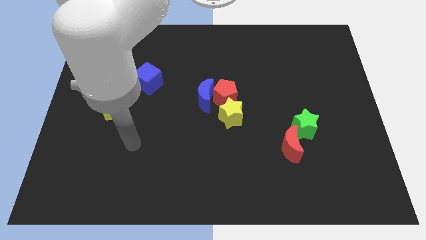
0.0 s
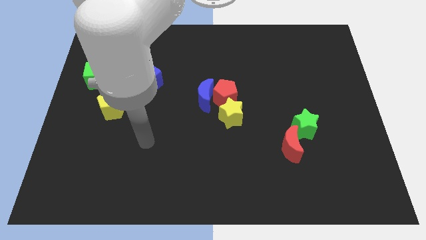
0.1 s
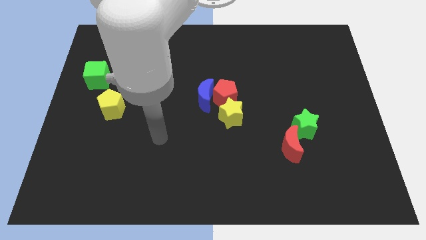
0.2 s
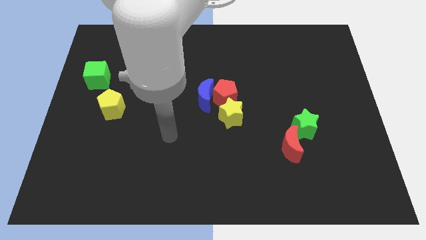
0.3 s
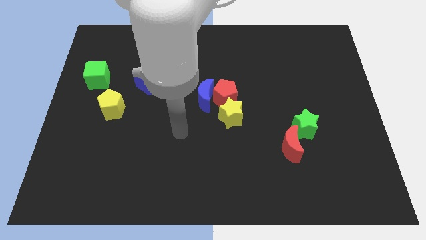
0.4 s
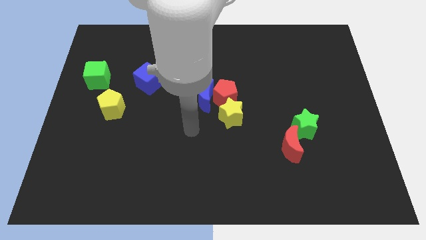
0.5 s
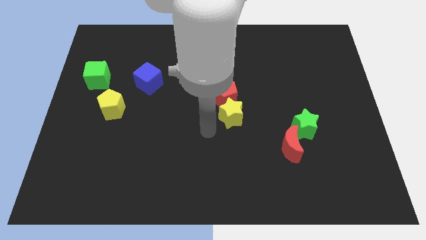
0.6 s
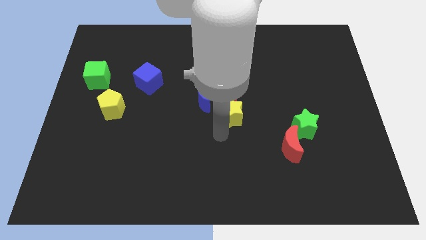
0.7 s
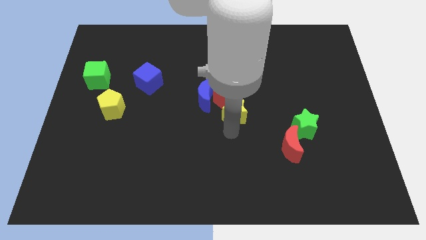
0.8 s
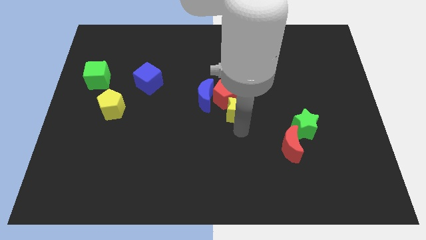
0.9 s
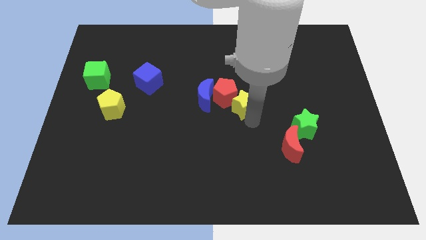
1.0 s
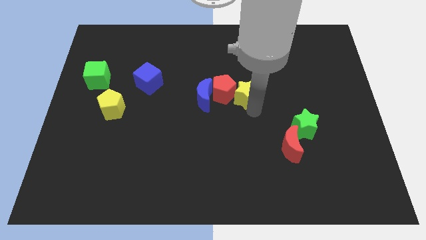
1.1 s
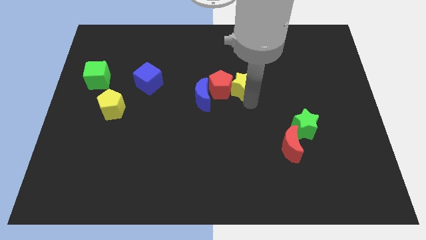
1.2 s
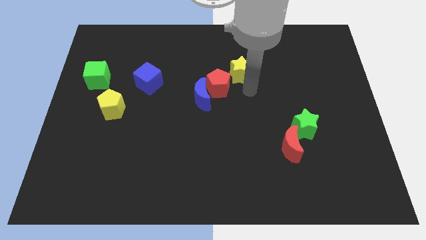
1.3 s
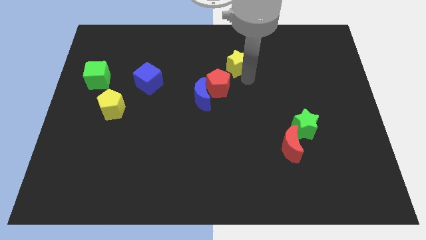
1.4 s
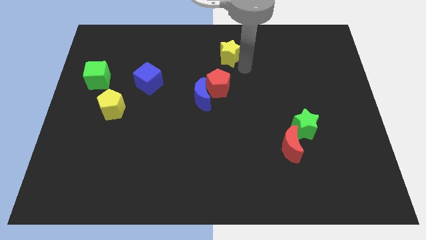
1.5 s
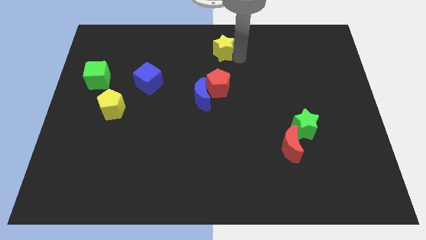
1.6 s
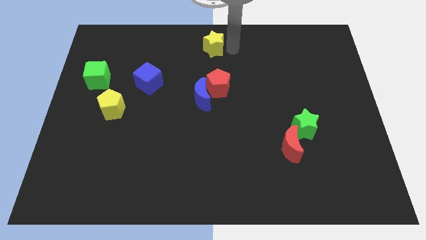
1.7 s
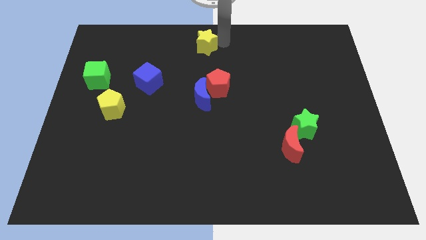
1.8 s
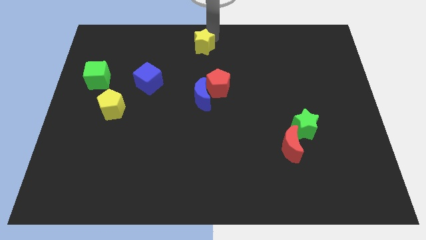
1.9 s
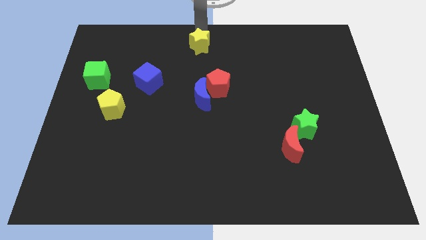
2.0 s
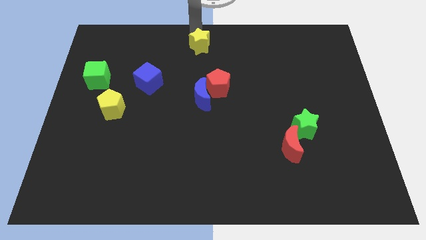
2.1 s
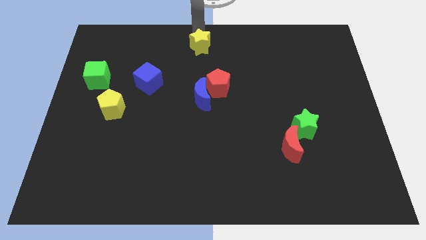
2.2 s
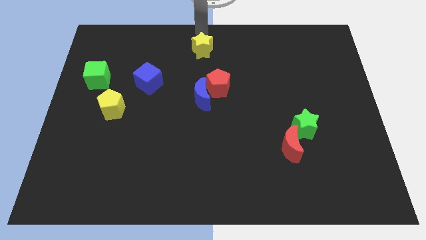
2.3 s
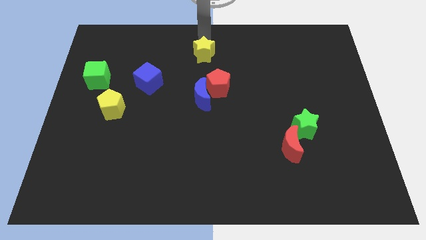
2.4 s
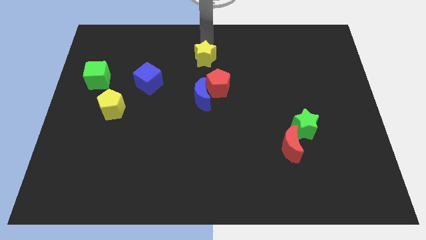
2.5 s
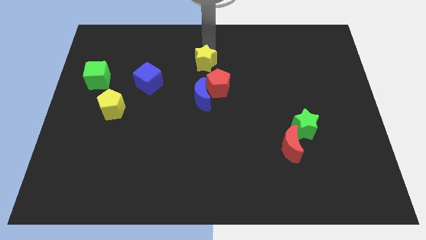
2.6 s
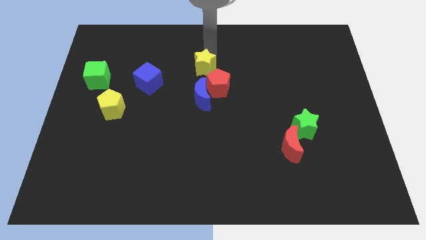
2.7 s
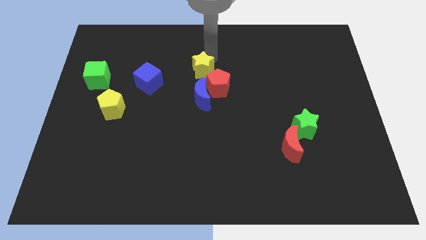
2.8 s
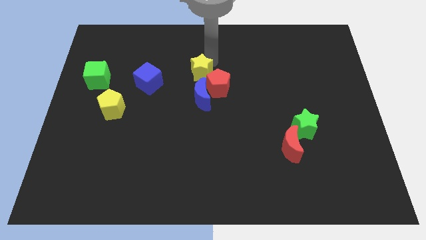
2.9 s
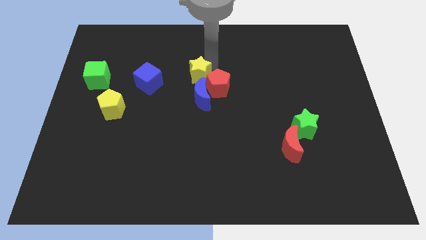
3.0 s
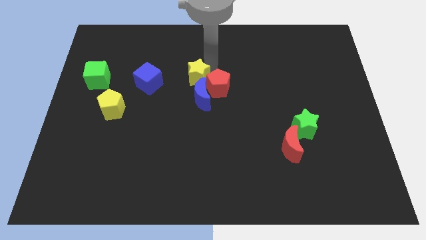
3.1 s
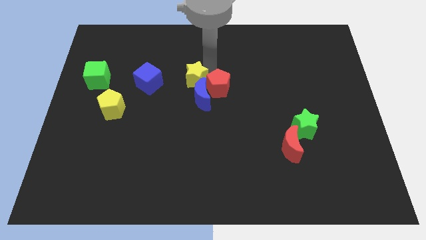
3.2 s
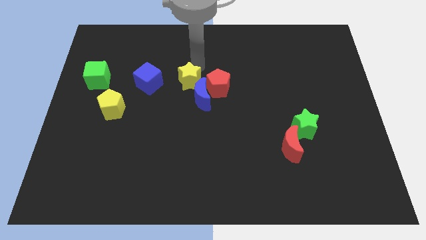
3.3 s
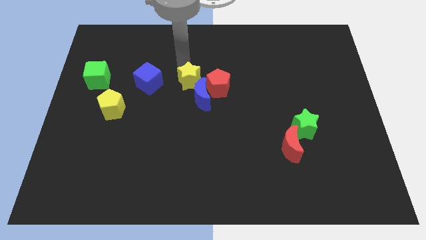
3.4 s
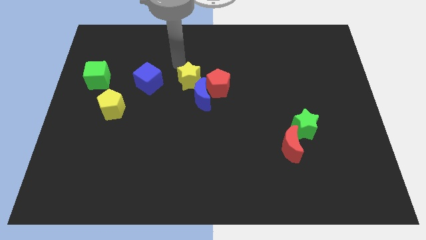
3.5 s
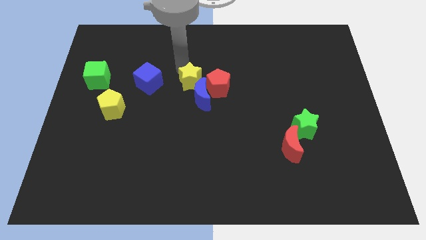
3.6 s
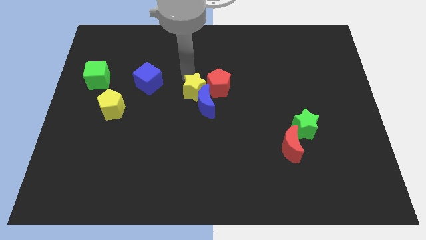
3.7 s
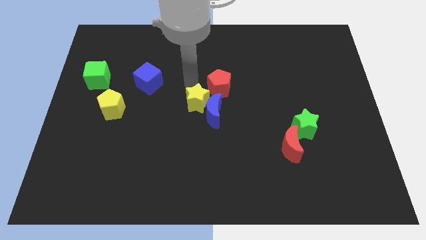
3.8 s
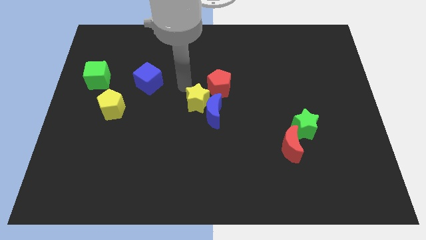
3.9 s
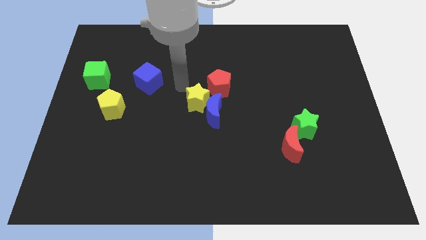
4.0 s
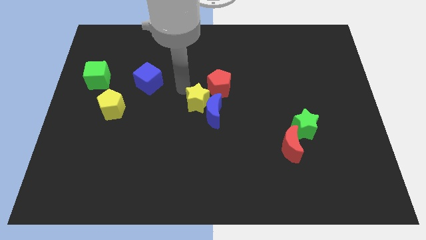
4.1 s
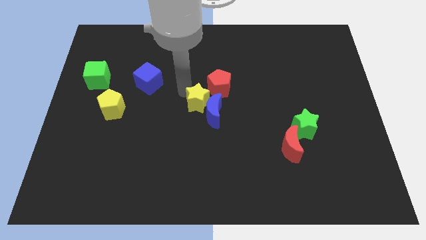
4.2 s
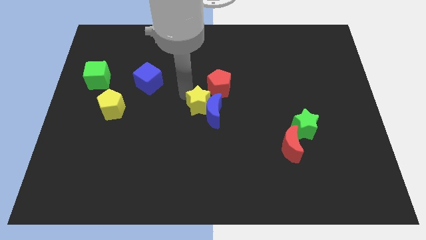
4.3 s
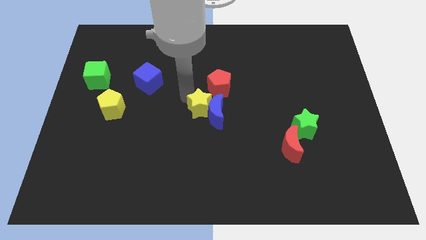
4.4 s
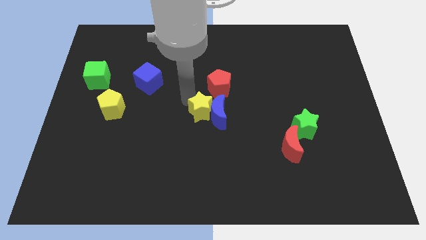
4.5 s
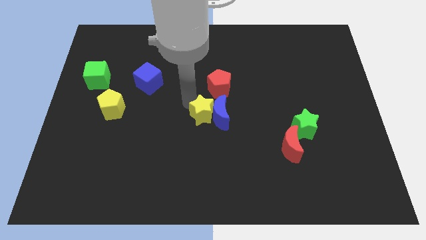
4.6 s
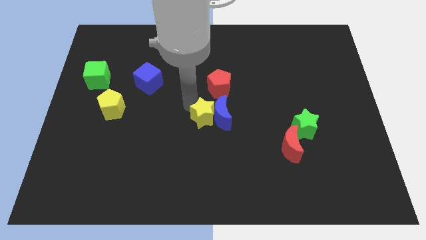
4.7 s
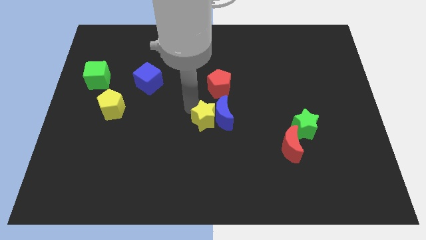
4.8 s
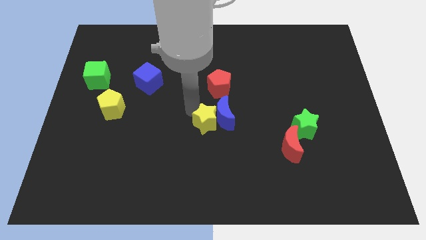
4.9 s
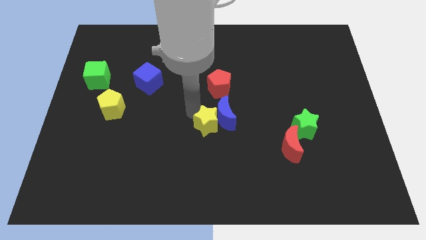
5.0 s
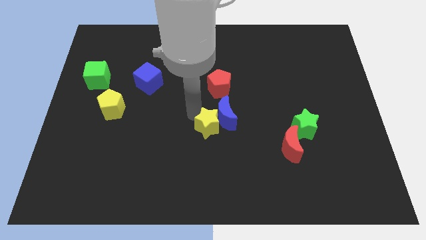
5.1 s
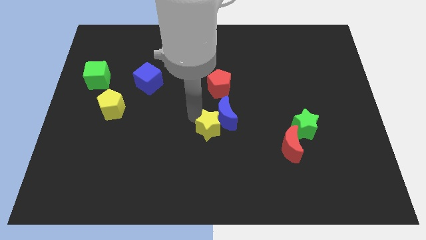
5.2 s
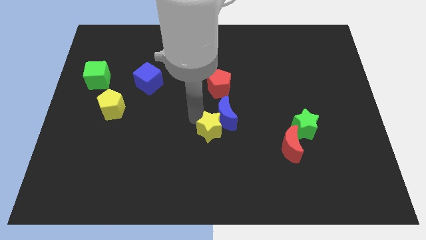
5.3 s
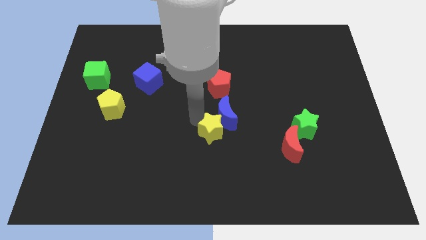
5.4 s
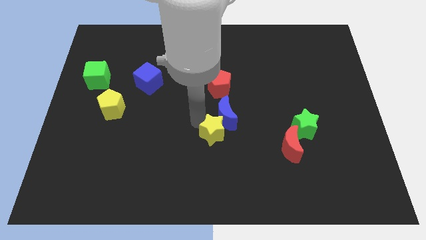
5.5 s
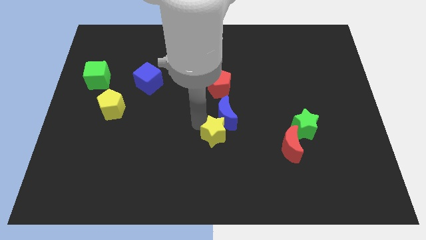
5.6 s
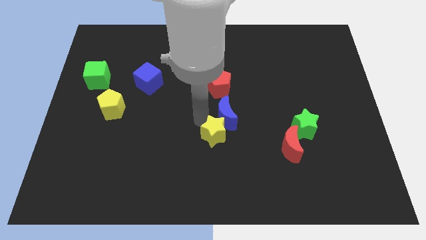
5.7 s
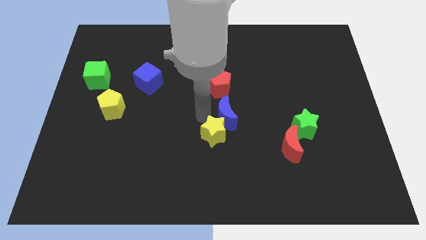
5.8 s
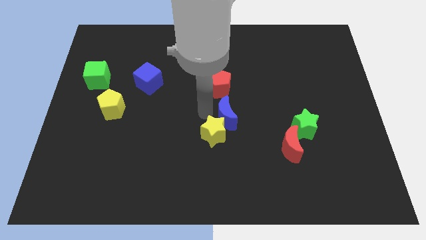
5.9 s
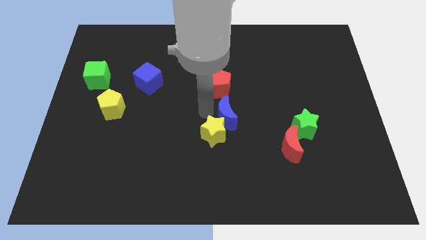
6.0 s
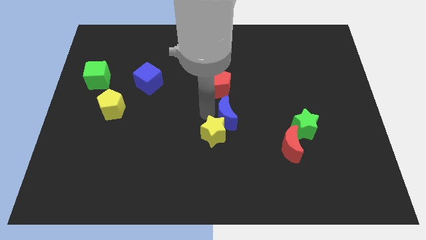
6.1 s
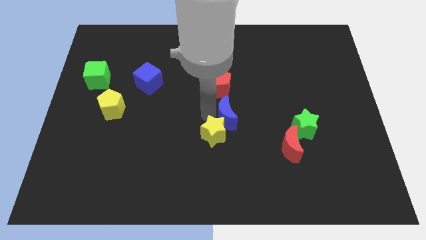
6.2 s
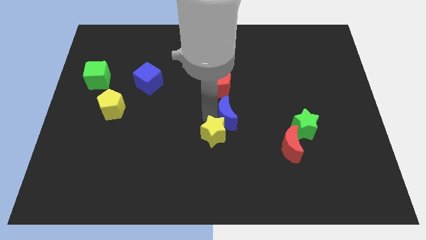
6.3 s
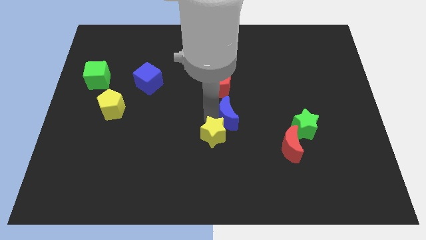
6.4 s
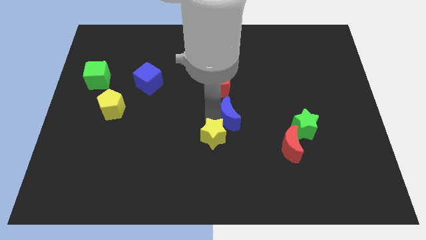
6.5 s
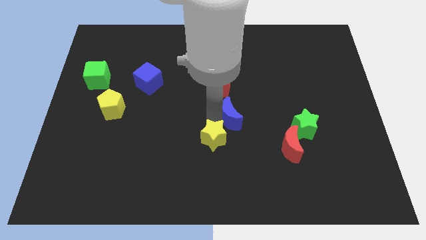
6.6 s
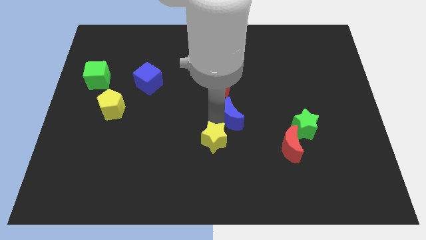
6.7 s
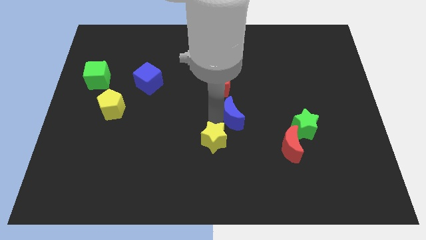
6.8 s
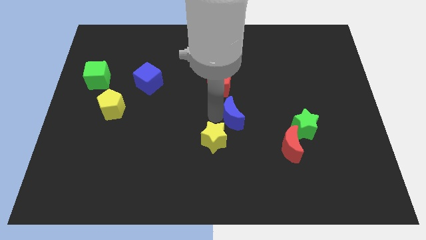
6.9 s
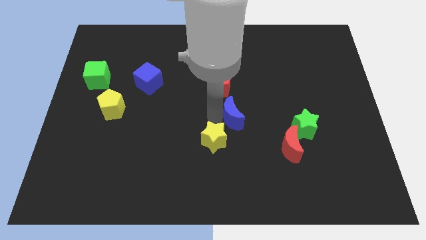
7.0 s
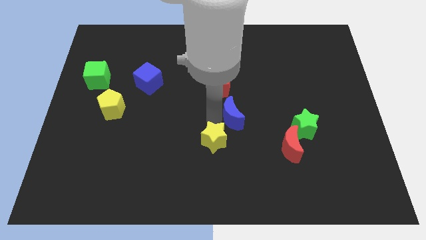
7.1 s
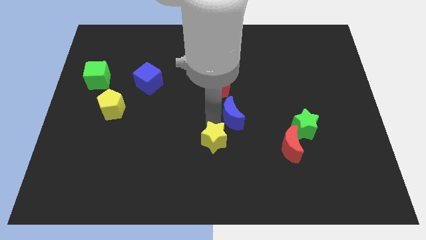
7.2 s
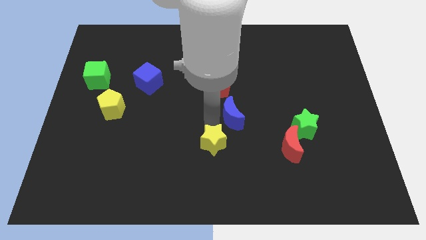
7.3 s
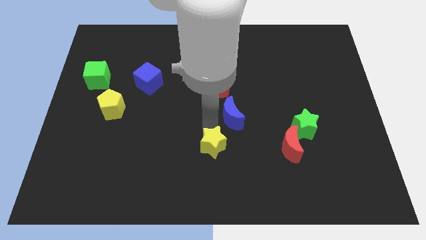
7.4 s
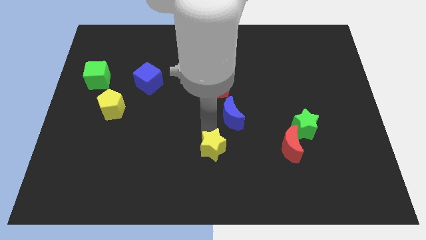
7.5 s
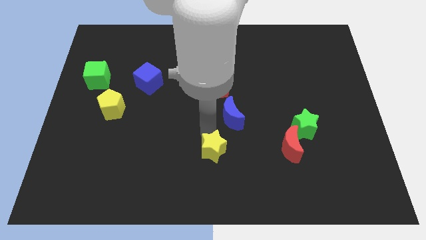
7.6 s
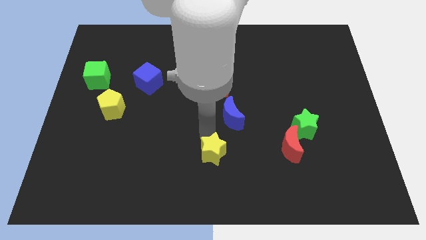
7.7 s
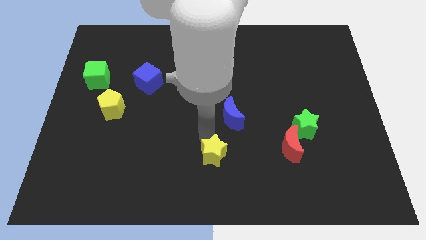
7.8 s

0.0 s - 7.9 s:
push the yellow star to the bottom side
